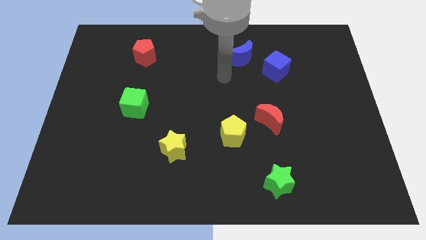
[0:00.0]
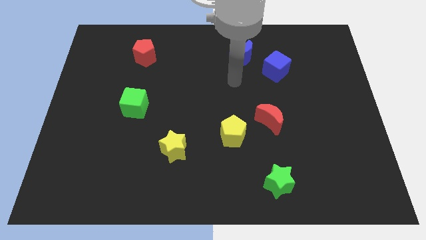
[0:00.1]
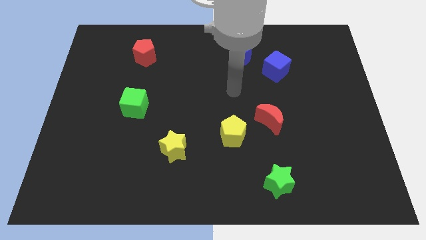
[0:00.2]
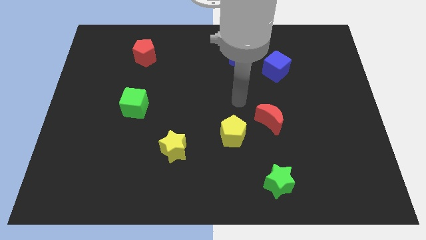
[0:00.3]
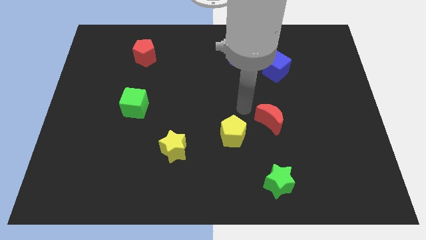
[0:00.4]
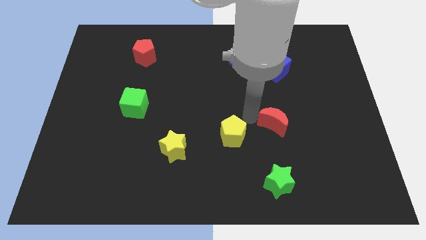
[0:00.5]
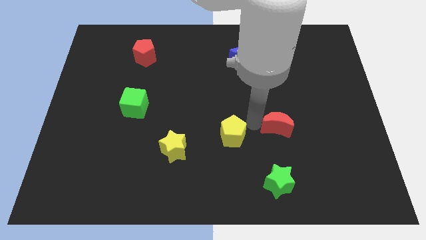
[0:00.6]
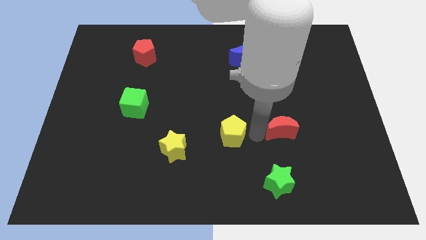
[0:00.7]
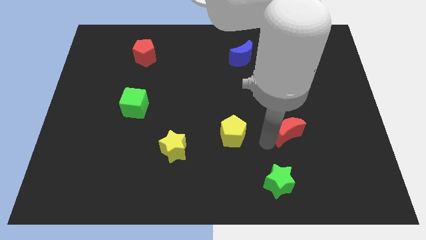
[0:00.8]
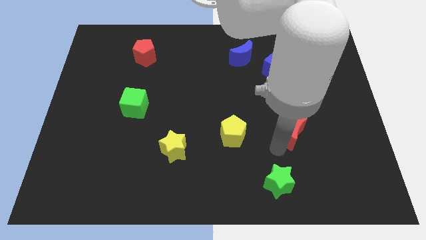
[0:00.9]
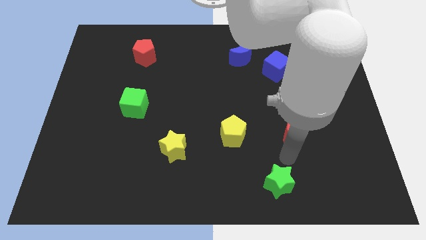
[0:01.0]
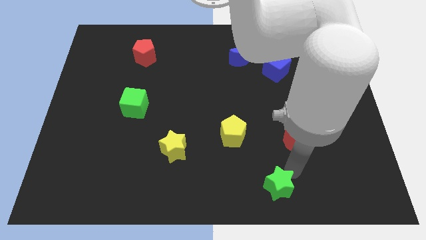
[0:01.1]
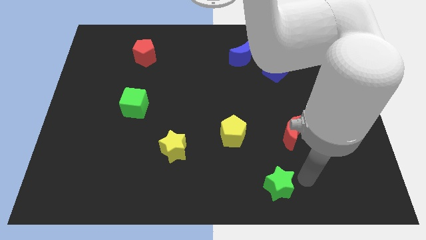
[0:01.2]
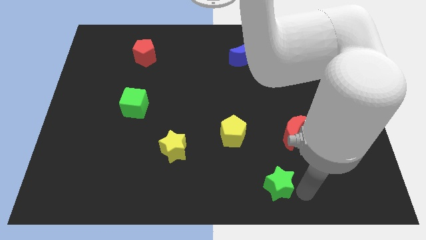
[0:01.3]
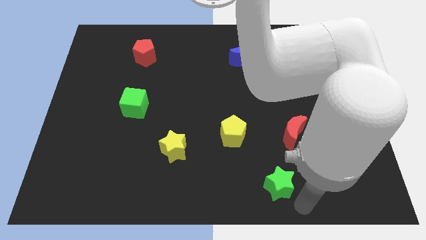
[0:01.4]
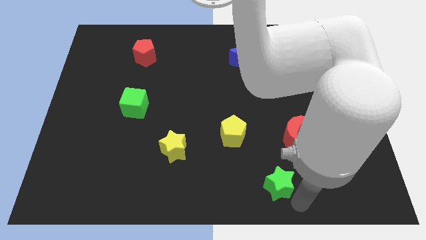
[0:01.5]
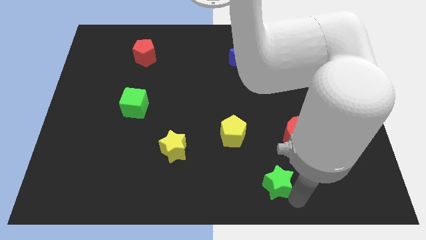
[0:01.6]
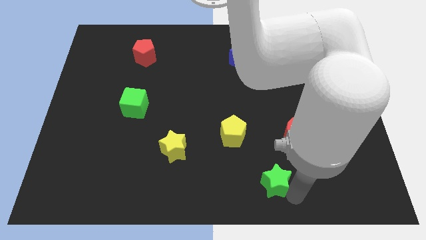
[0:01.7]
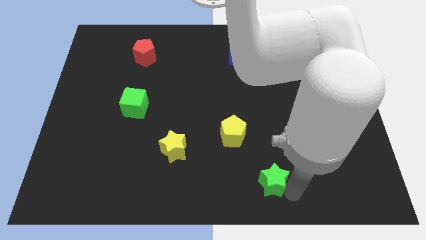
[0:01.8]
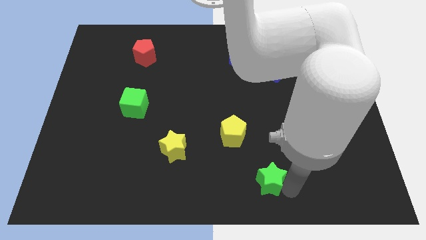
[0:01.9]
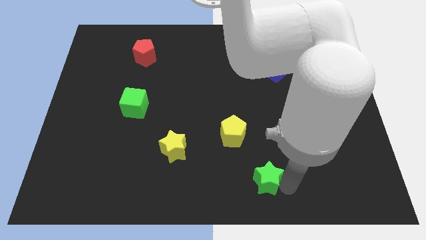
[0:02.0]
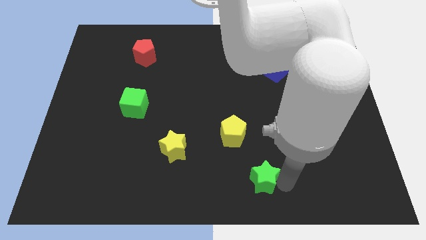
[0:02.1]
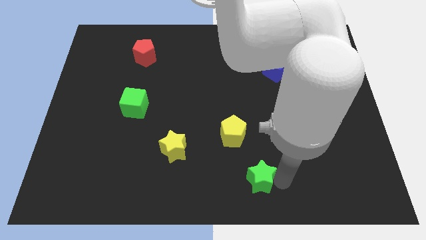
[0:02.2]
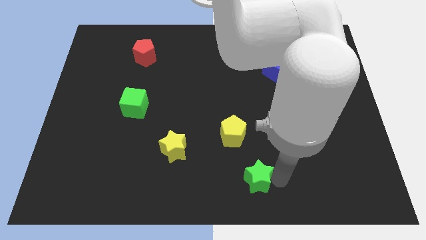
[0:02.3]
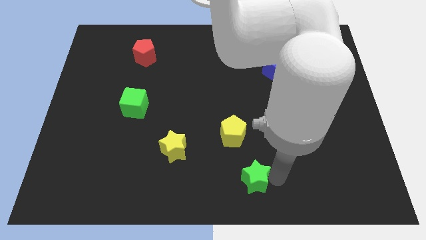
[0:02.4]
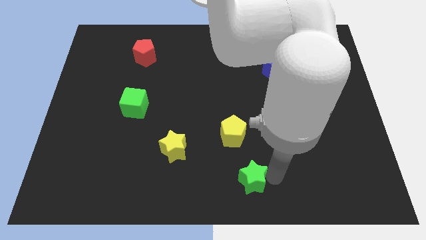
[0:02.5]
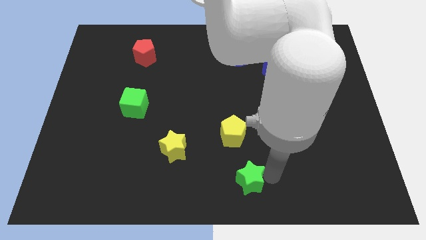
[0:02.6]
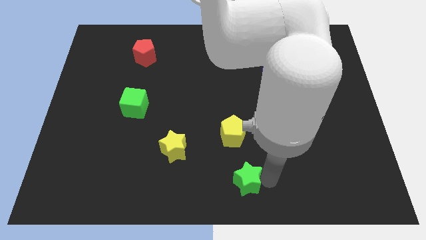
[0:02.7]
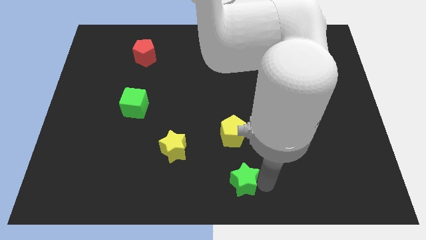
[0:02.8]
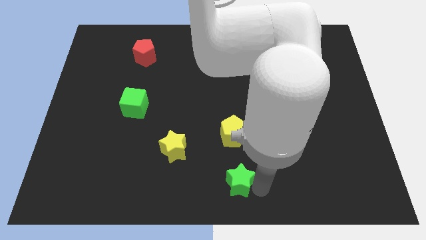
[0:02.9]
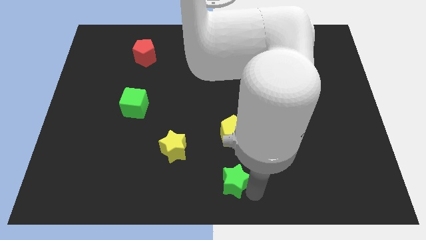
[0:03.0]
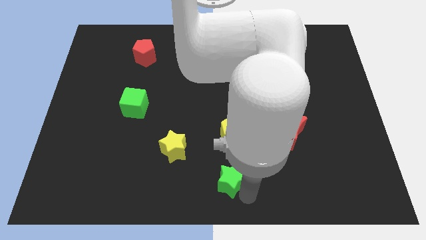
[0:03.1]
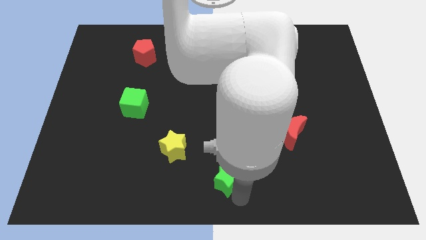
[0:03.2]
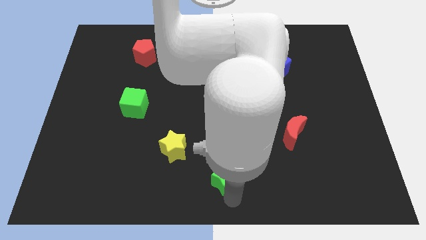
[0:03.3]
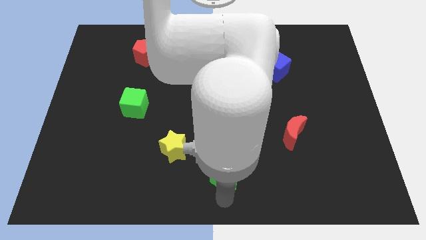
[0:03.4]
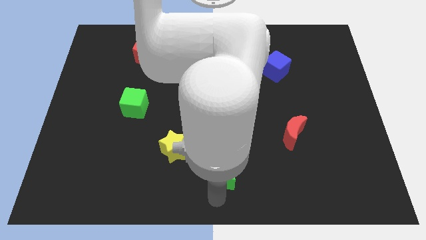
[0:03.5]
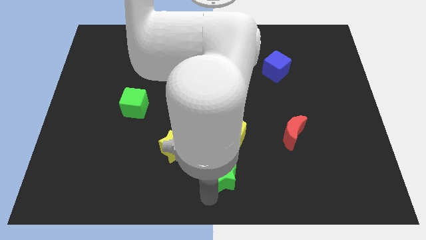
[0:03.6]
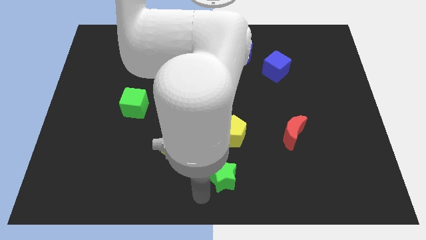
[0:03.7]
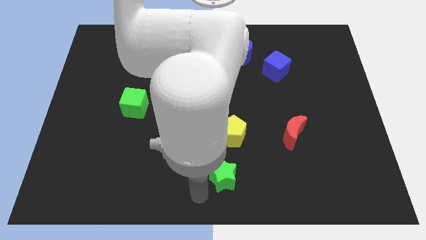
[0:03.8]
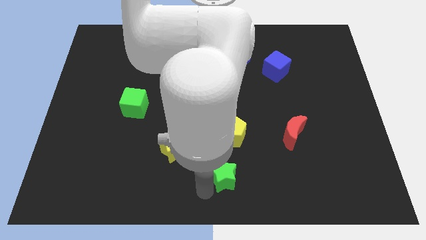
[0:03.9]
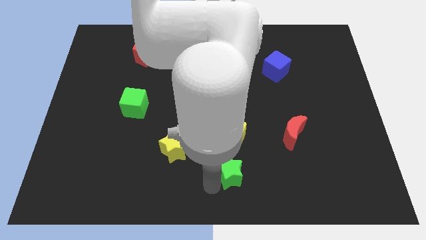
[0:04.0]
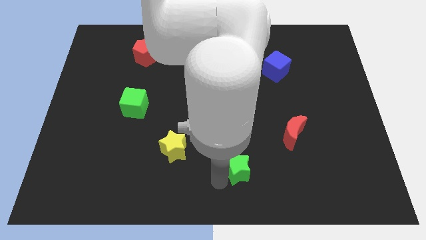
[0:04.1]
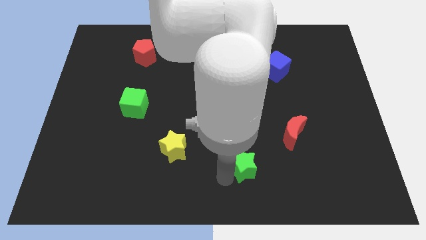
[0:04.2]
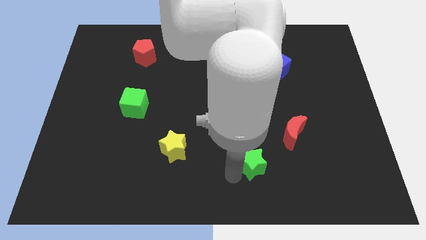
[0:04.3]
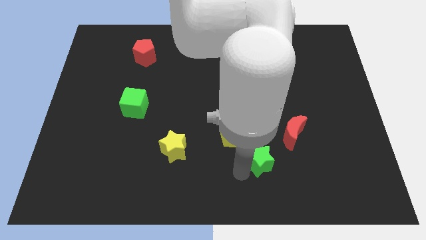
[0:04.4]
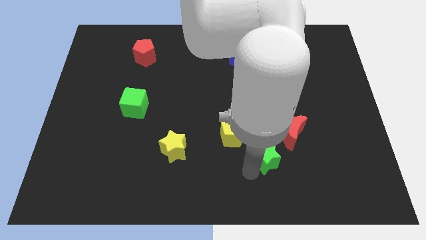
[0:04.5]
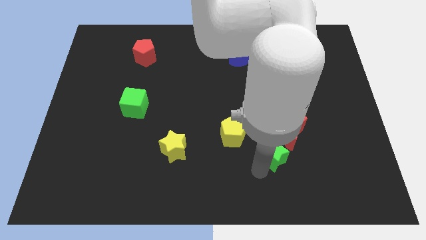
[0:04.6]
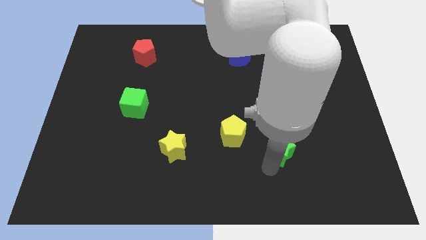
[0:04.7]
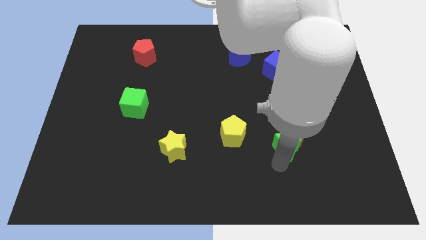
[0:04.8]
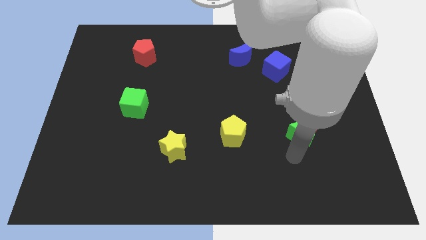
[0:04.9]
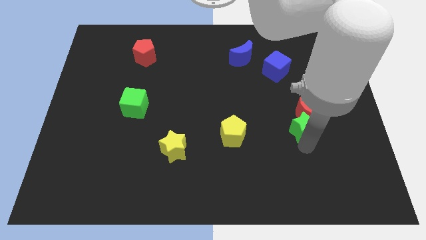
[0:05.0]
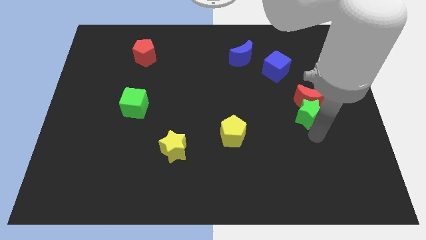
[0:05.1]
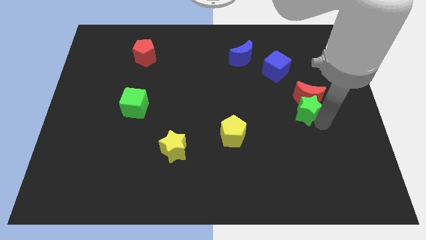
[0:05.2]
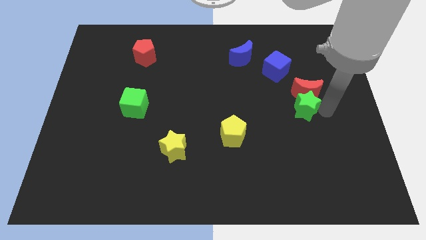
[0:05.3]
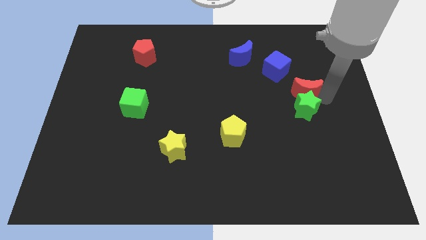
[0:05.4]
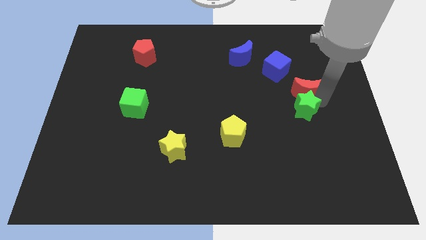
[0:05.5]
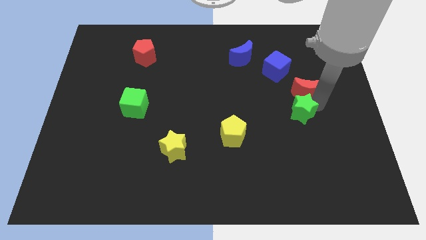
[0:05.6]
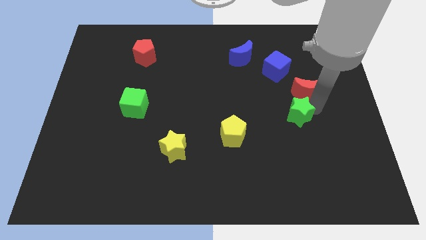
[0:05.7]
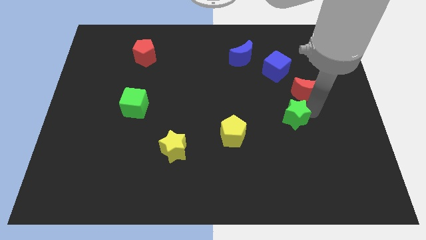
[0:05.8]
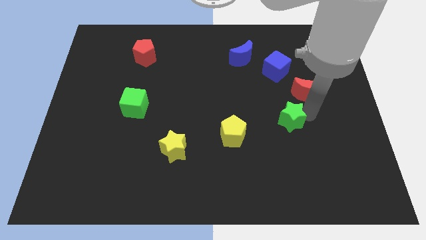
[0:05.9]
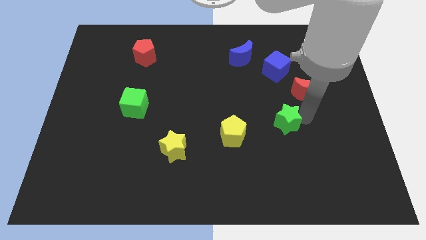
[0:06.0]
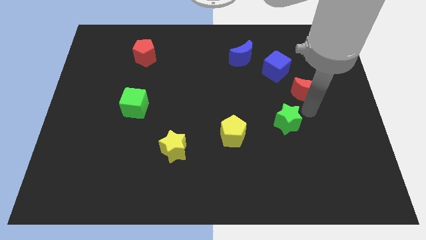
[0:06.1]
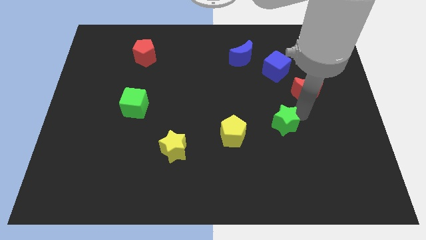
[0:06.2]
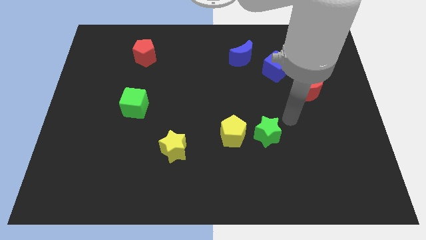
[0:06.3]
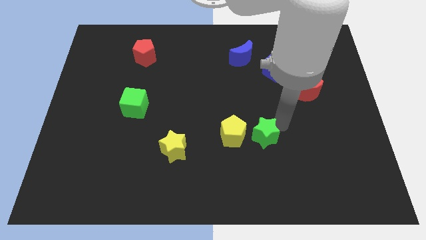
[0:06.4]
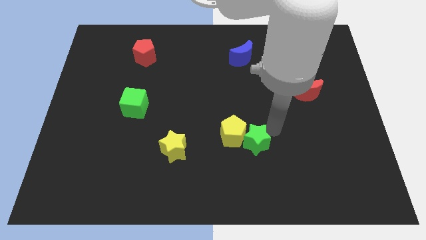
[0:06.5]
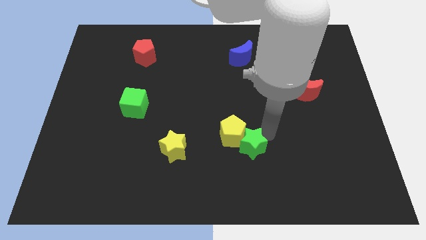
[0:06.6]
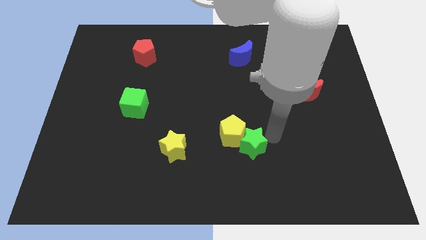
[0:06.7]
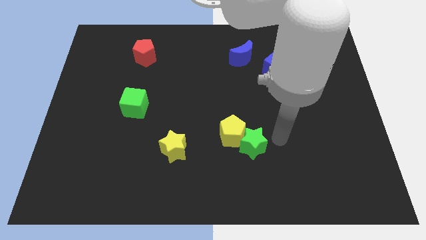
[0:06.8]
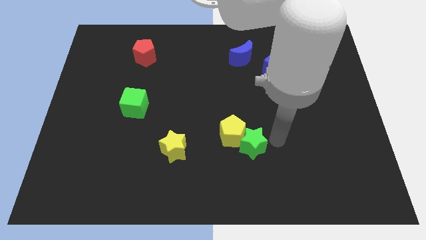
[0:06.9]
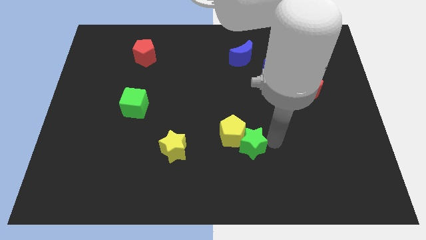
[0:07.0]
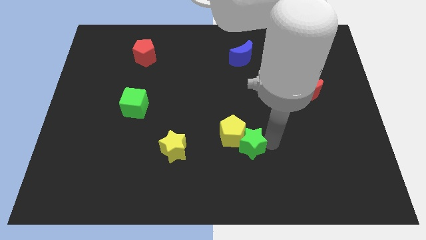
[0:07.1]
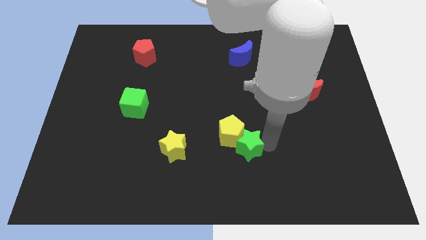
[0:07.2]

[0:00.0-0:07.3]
push the green star just right of the yellow star
